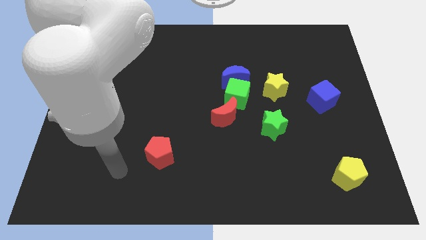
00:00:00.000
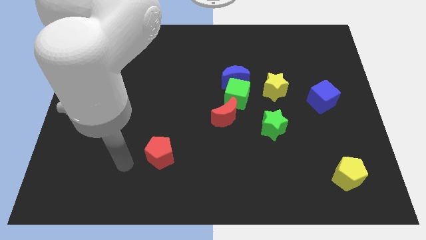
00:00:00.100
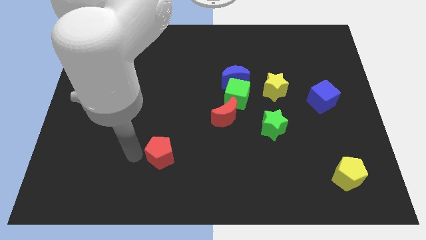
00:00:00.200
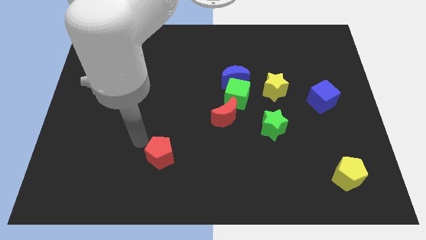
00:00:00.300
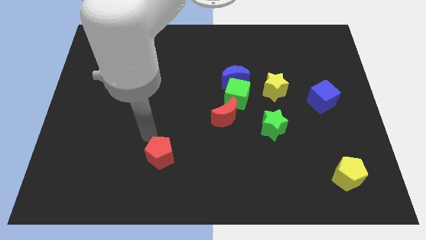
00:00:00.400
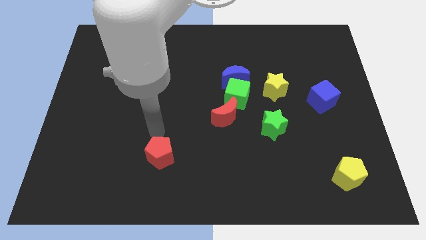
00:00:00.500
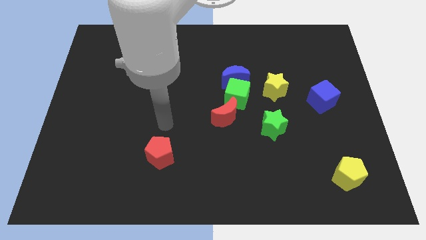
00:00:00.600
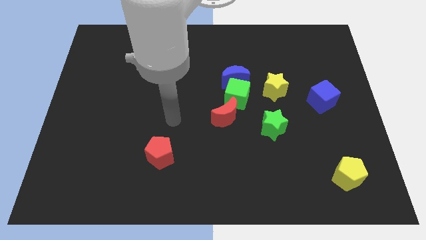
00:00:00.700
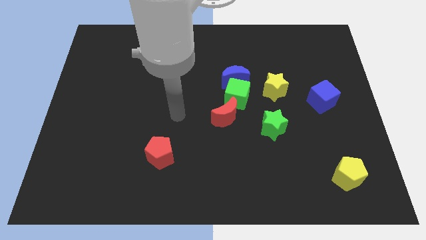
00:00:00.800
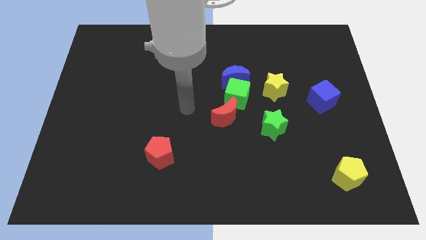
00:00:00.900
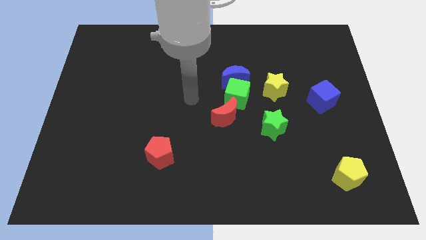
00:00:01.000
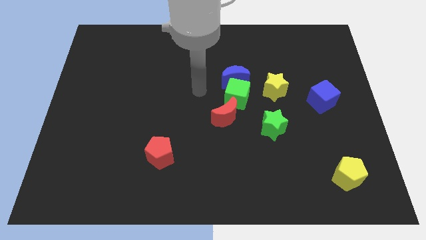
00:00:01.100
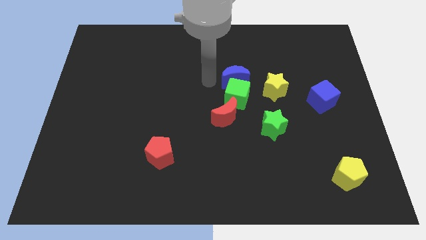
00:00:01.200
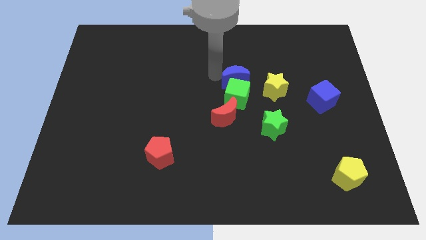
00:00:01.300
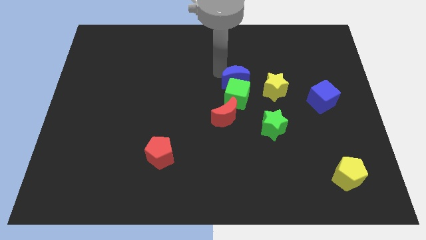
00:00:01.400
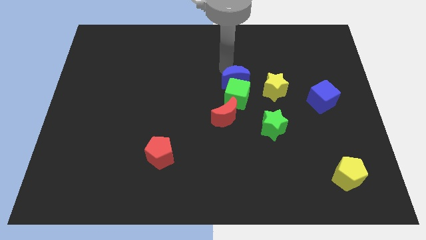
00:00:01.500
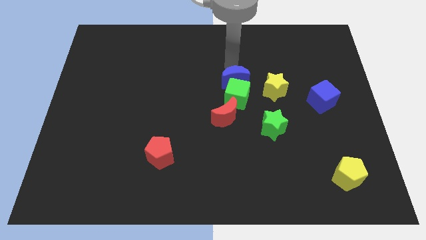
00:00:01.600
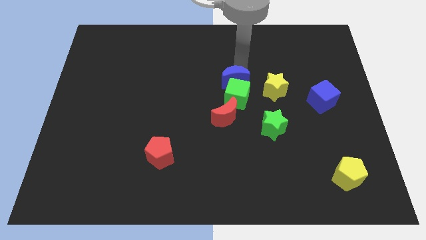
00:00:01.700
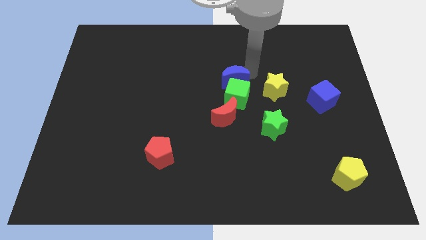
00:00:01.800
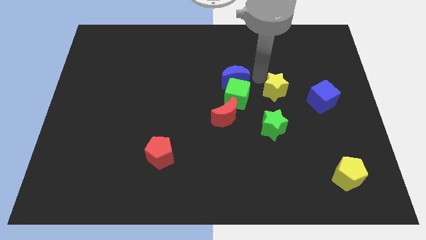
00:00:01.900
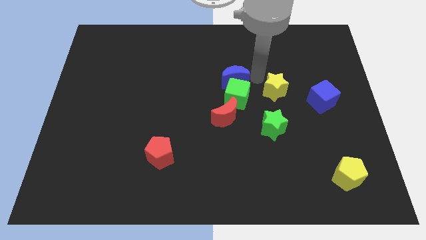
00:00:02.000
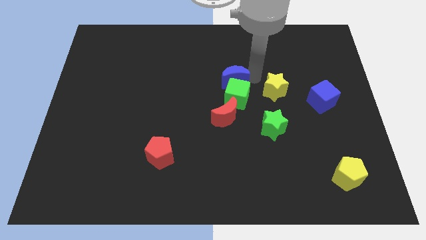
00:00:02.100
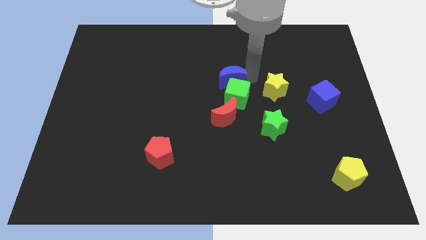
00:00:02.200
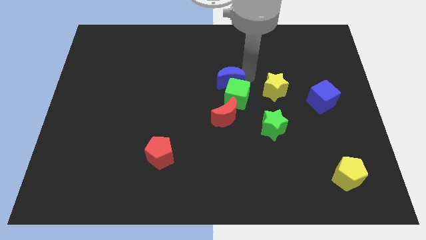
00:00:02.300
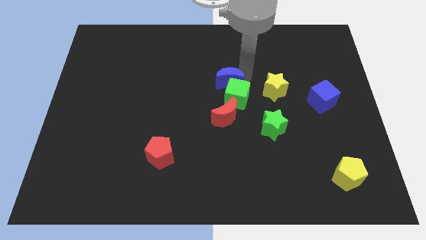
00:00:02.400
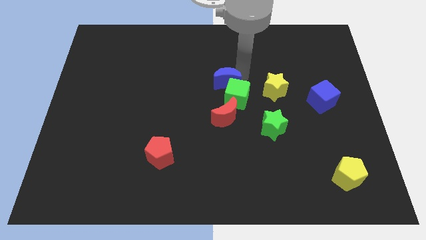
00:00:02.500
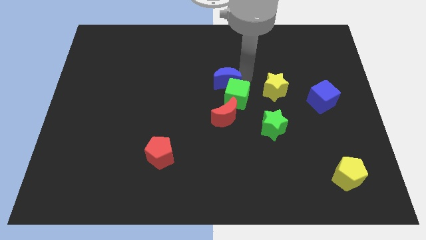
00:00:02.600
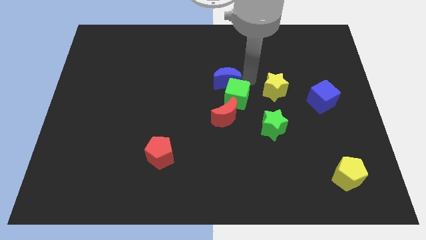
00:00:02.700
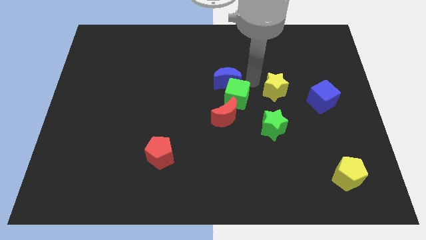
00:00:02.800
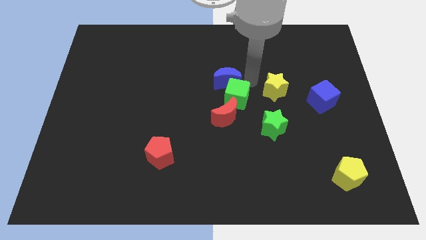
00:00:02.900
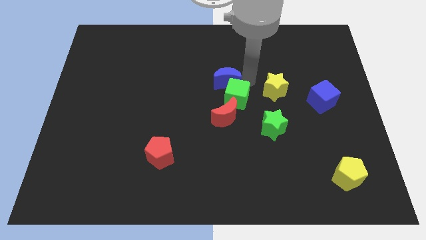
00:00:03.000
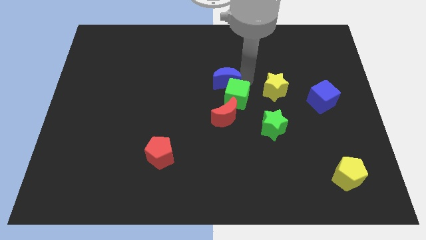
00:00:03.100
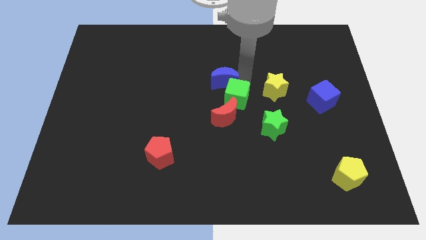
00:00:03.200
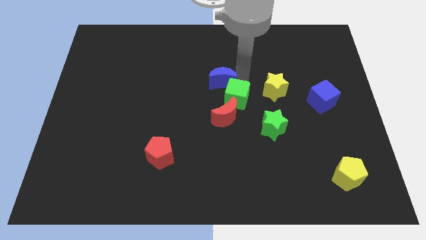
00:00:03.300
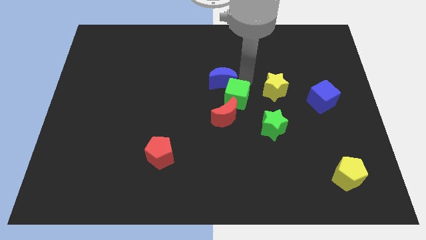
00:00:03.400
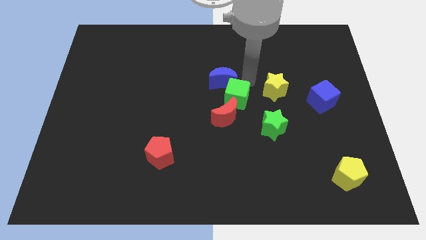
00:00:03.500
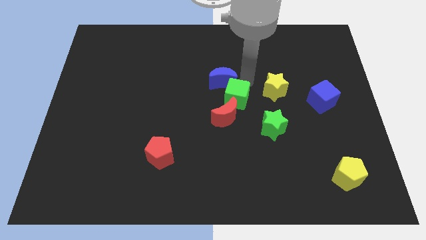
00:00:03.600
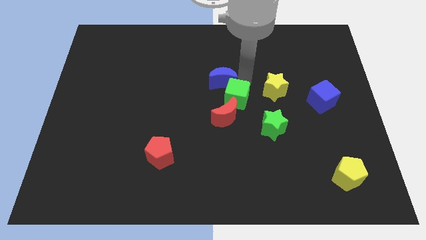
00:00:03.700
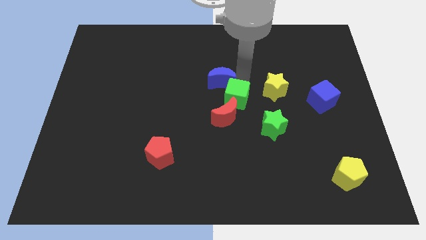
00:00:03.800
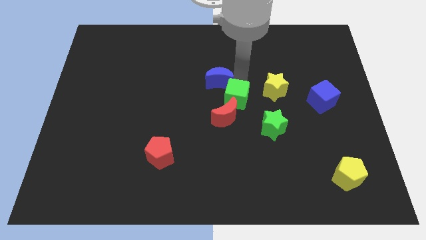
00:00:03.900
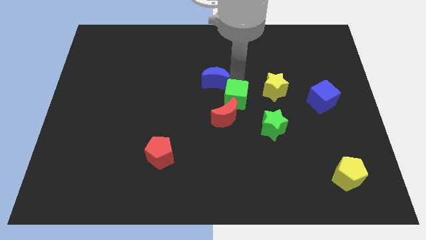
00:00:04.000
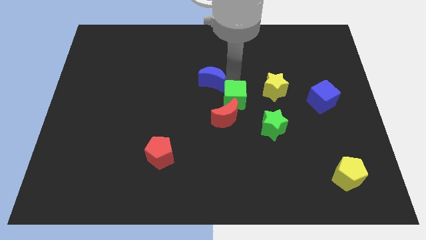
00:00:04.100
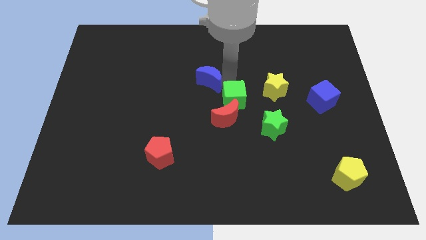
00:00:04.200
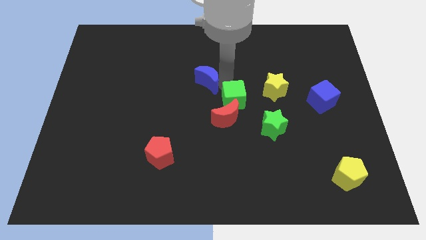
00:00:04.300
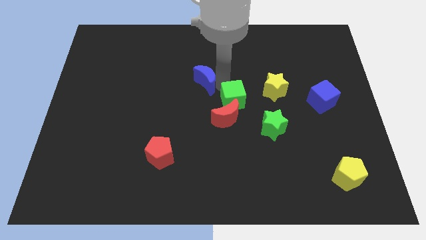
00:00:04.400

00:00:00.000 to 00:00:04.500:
slightly slide the blue moon left

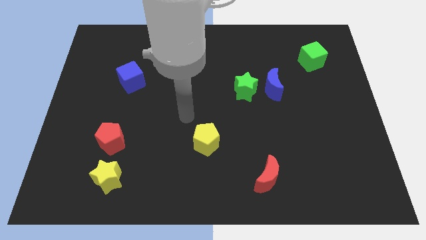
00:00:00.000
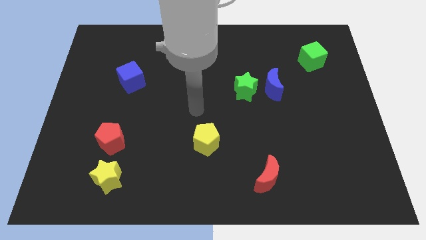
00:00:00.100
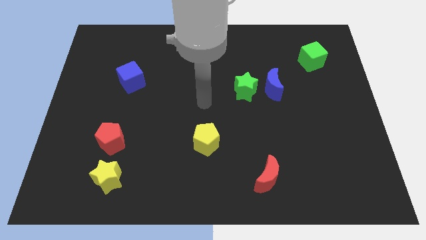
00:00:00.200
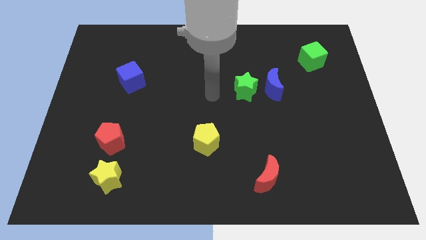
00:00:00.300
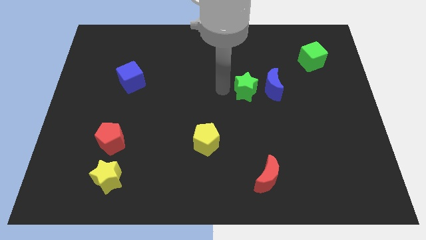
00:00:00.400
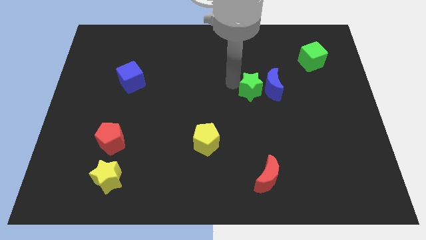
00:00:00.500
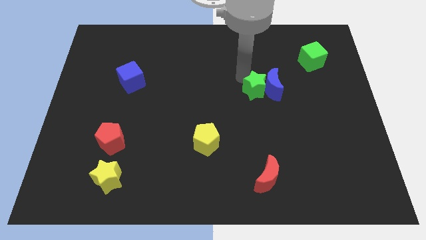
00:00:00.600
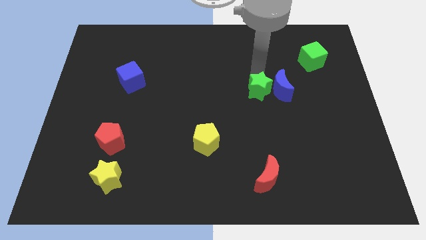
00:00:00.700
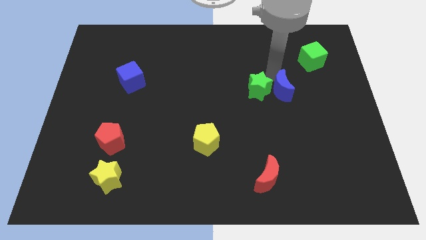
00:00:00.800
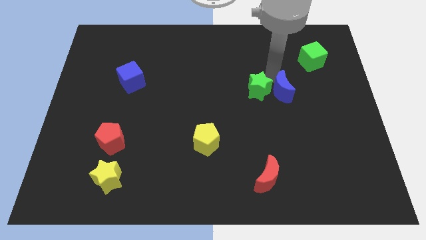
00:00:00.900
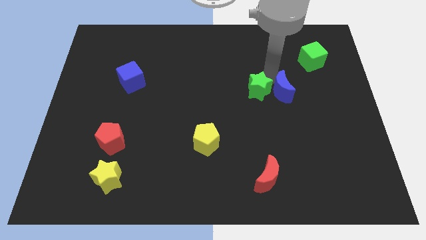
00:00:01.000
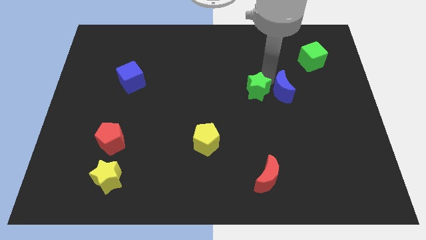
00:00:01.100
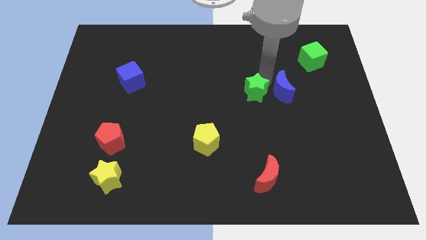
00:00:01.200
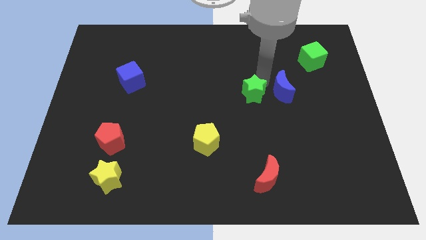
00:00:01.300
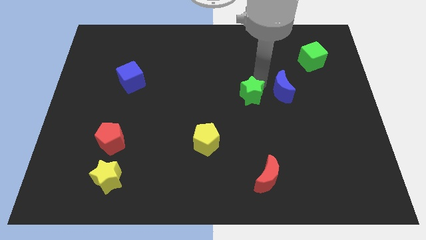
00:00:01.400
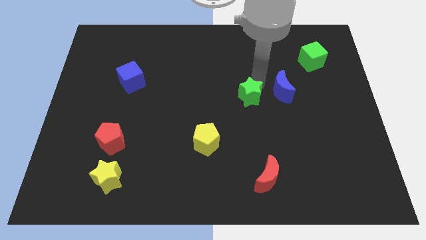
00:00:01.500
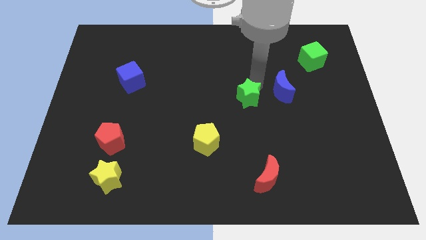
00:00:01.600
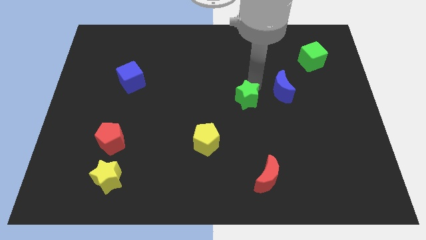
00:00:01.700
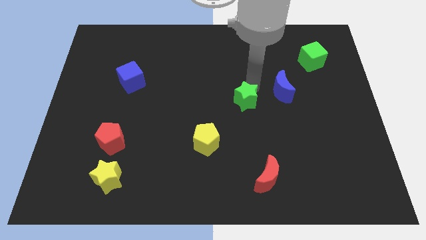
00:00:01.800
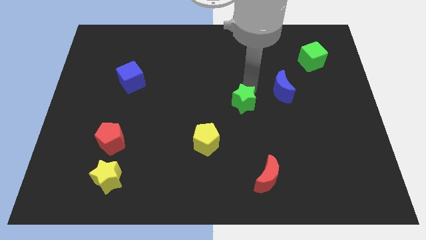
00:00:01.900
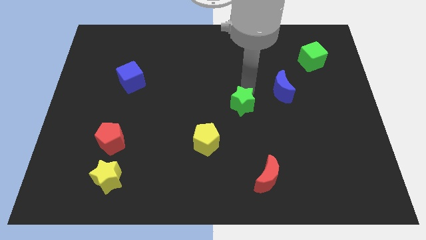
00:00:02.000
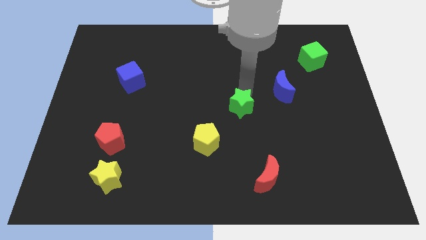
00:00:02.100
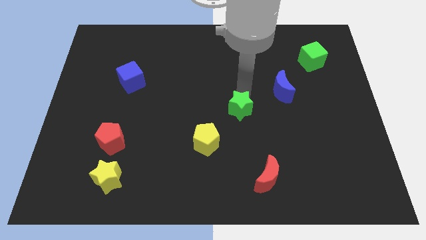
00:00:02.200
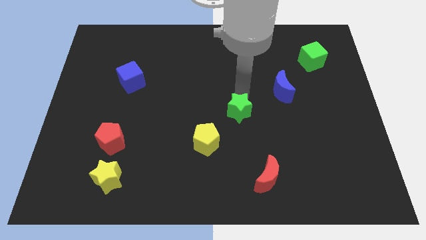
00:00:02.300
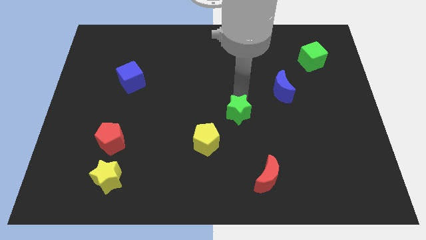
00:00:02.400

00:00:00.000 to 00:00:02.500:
slide the green star a bit downwards

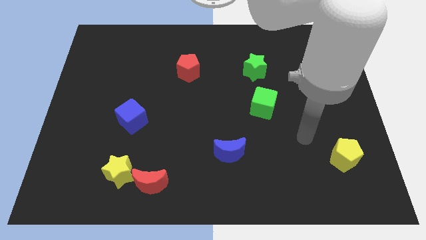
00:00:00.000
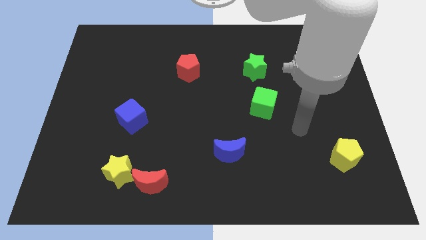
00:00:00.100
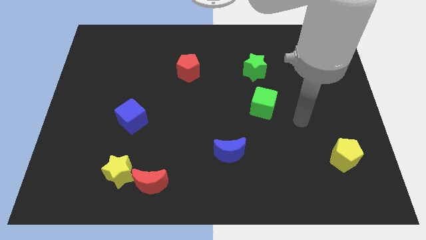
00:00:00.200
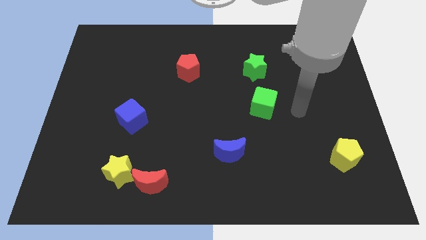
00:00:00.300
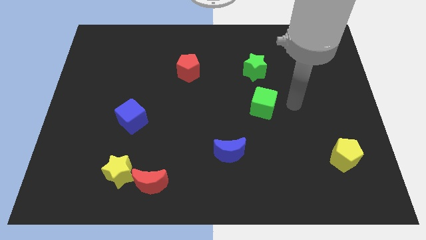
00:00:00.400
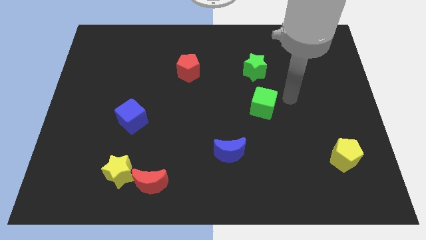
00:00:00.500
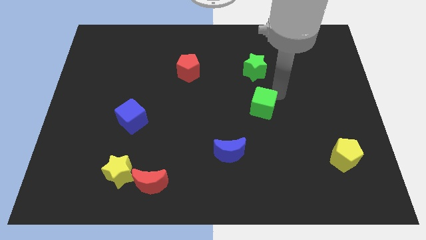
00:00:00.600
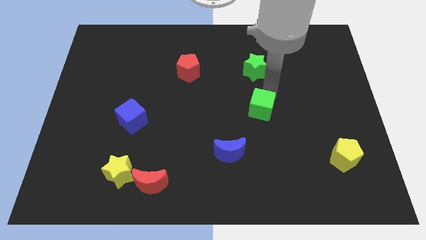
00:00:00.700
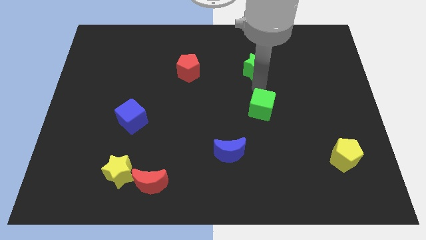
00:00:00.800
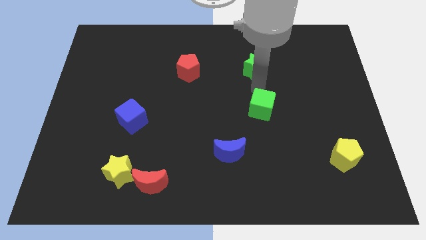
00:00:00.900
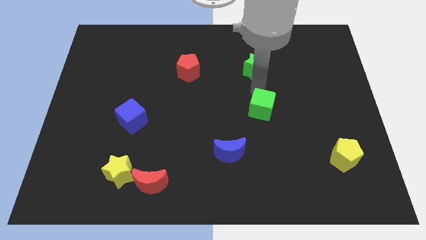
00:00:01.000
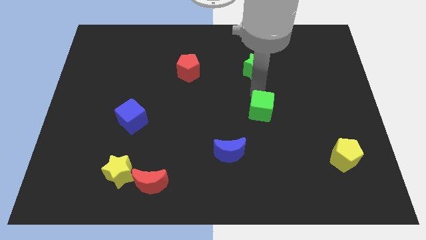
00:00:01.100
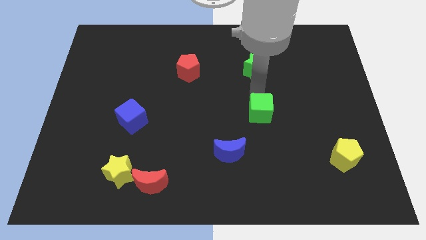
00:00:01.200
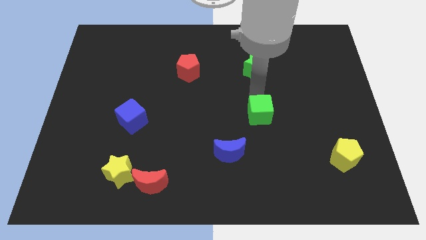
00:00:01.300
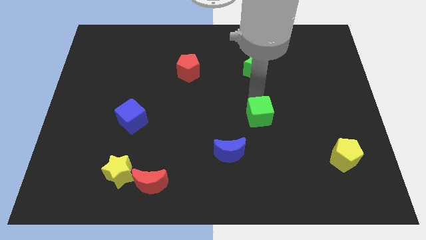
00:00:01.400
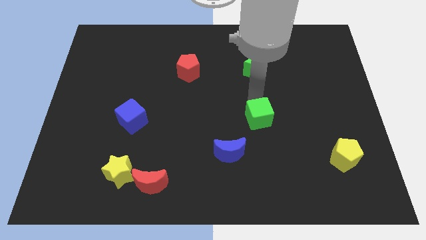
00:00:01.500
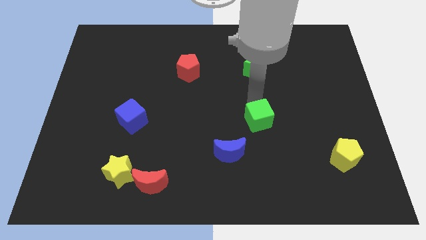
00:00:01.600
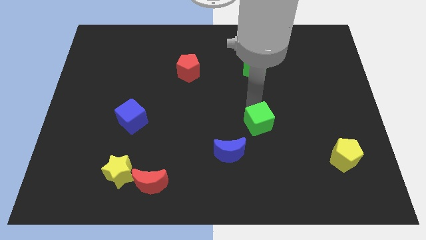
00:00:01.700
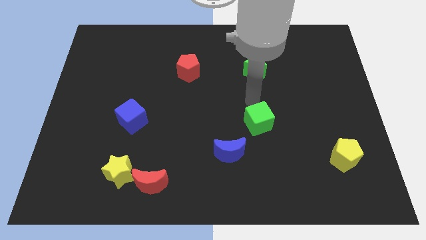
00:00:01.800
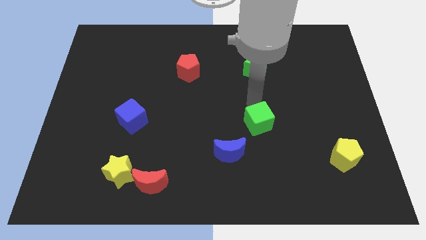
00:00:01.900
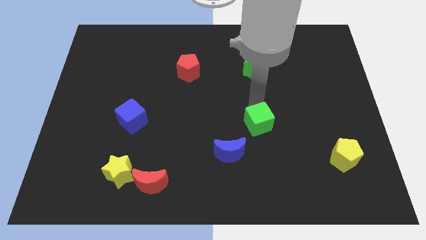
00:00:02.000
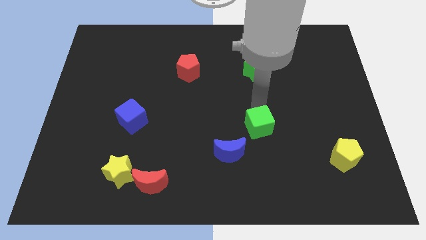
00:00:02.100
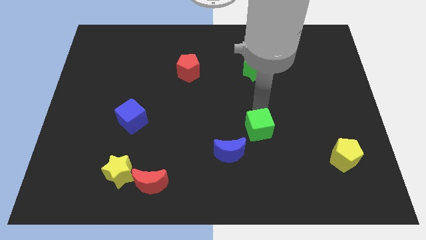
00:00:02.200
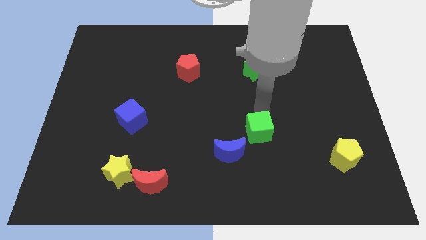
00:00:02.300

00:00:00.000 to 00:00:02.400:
slightly move the green cube down
